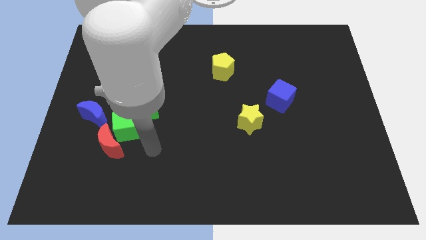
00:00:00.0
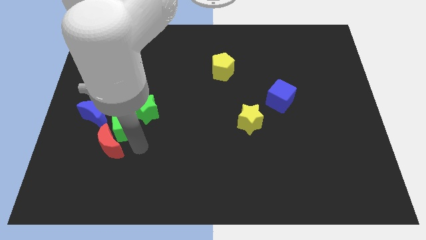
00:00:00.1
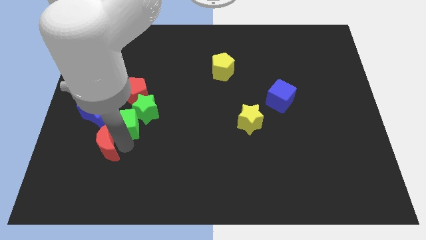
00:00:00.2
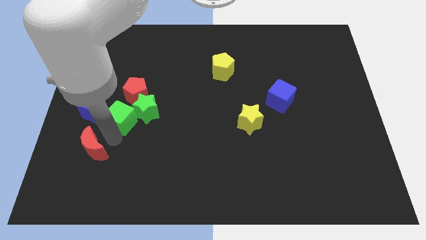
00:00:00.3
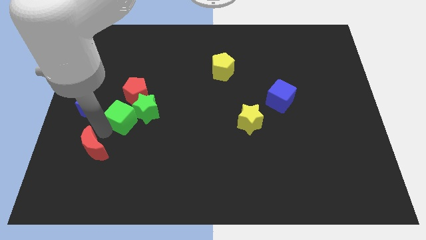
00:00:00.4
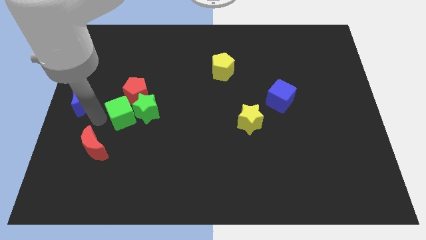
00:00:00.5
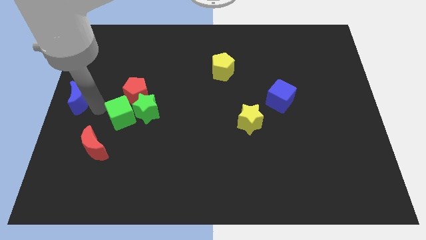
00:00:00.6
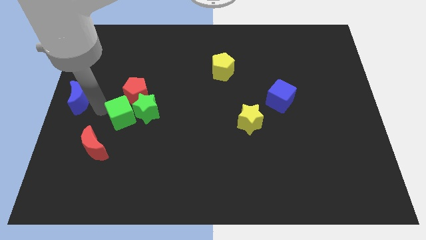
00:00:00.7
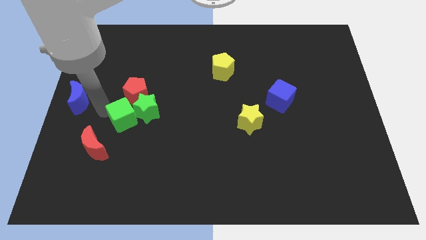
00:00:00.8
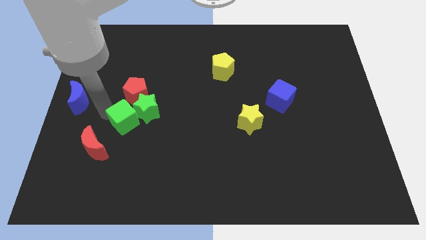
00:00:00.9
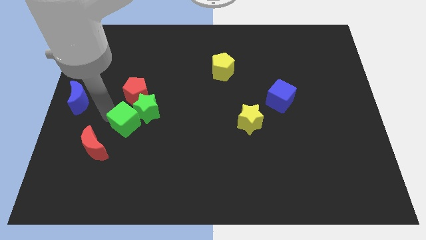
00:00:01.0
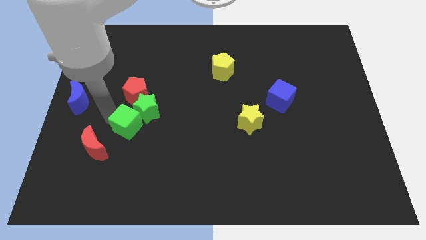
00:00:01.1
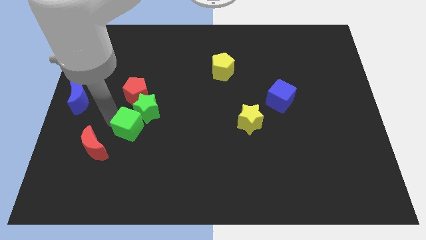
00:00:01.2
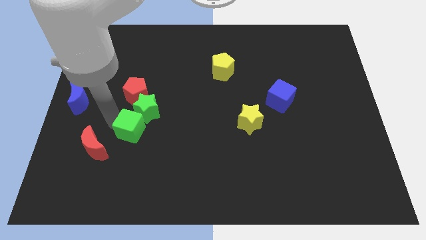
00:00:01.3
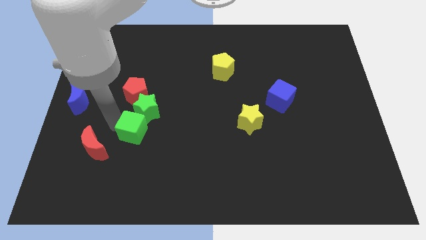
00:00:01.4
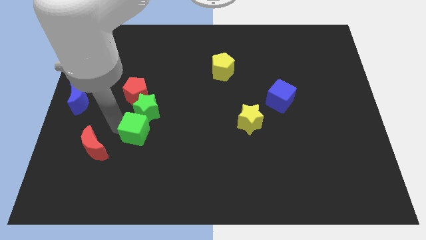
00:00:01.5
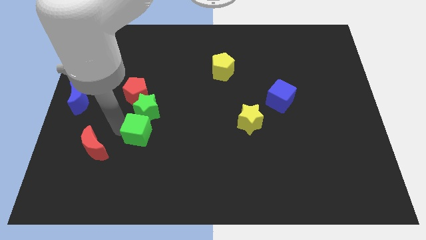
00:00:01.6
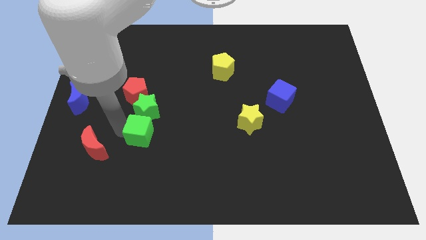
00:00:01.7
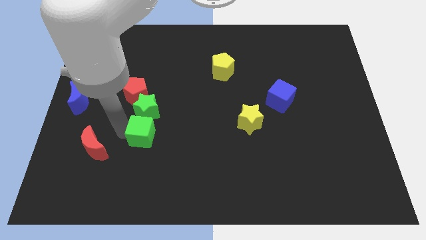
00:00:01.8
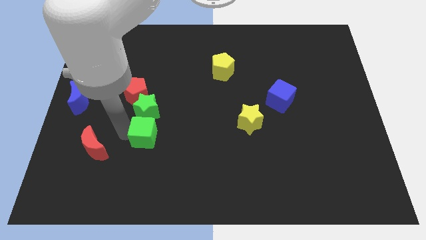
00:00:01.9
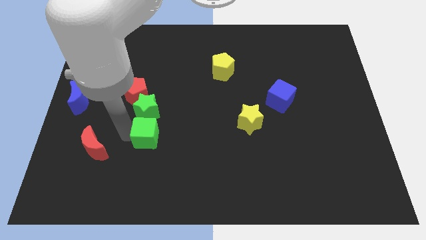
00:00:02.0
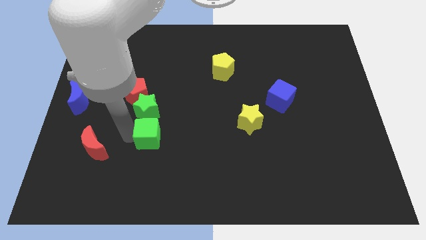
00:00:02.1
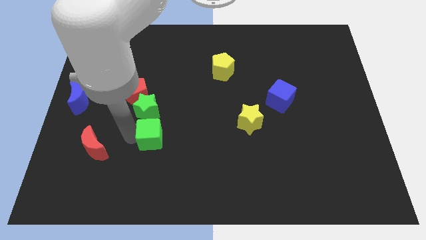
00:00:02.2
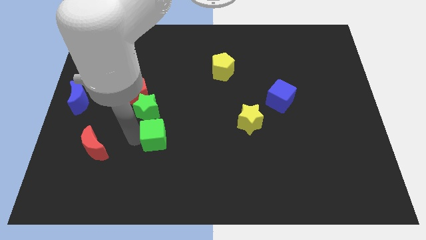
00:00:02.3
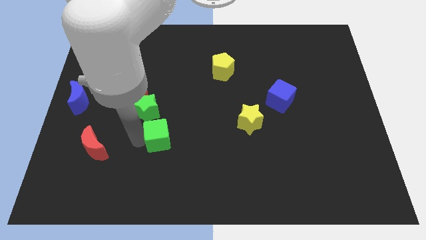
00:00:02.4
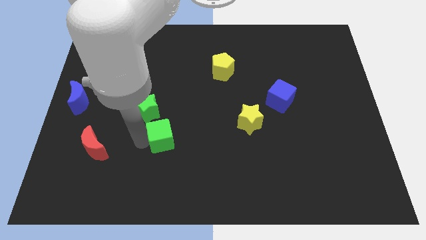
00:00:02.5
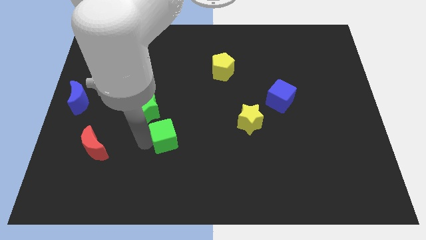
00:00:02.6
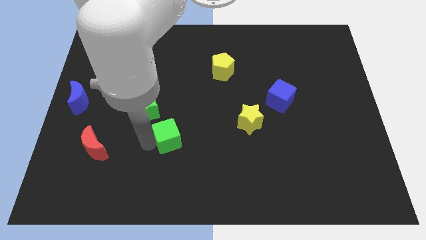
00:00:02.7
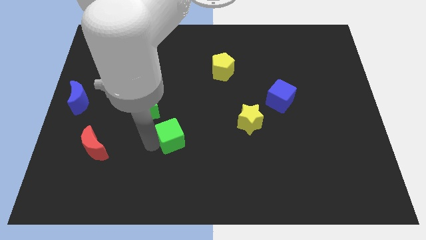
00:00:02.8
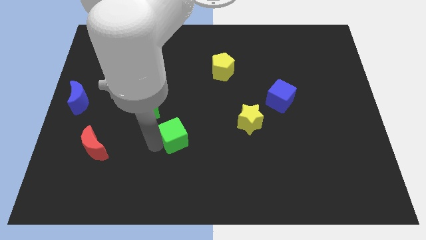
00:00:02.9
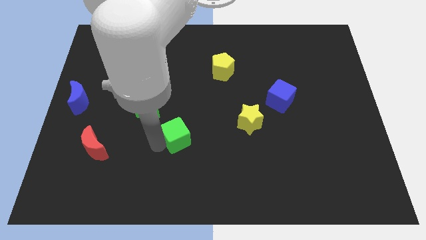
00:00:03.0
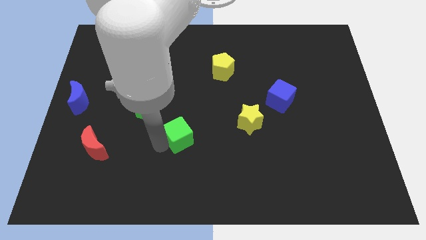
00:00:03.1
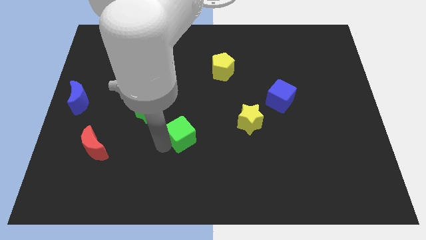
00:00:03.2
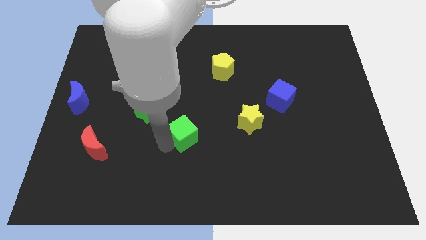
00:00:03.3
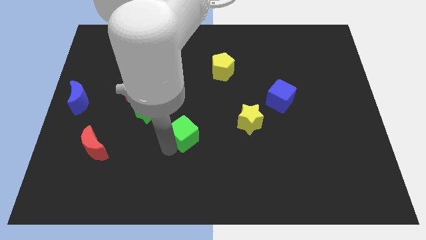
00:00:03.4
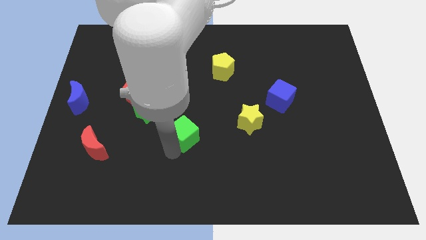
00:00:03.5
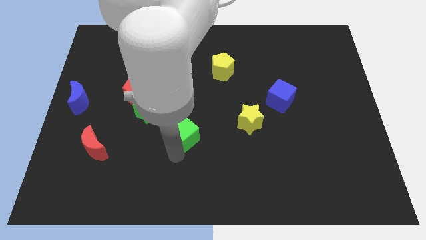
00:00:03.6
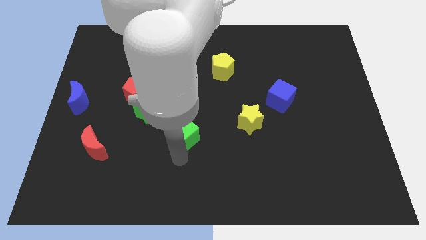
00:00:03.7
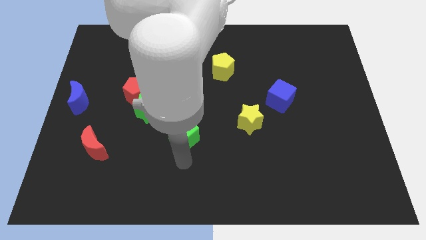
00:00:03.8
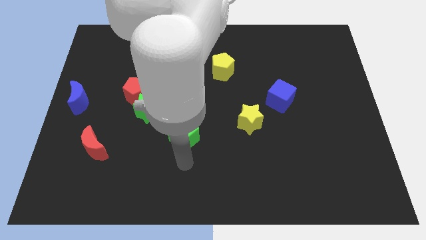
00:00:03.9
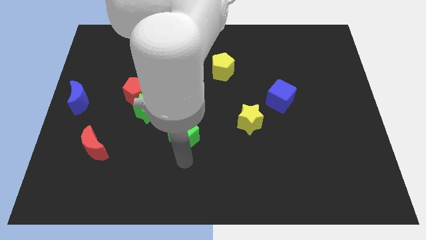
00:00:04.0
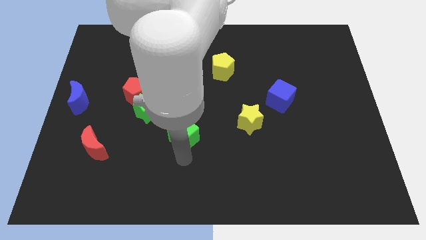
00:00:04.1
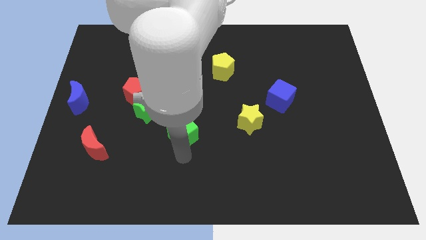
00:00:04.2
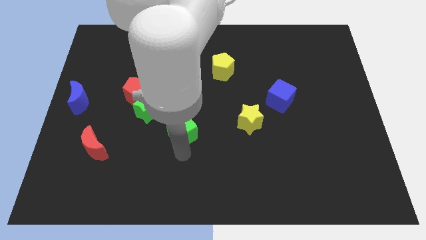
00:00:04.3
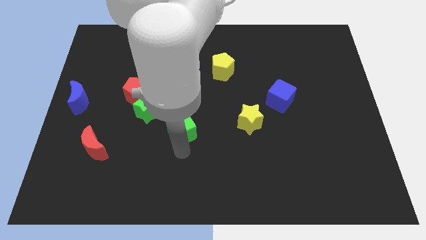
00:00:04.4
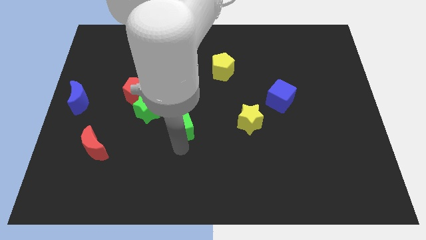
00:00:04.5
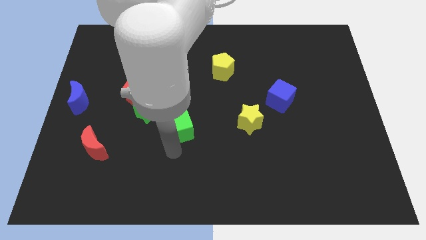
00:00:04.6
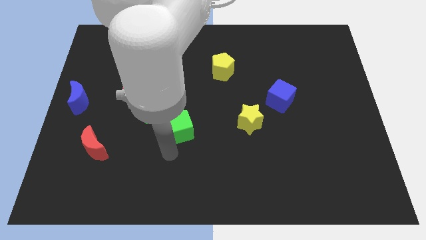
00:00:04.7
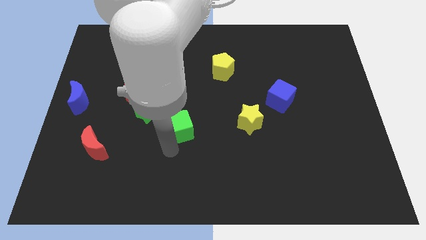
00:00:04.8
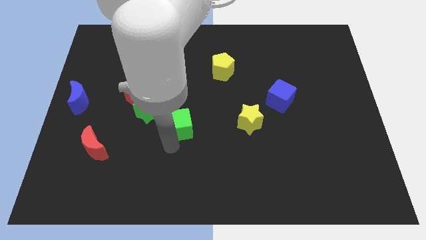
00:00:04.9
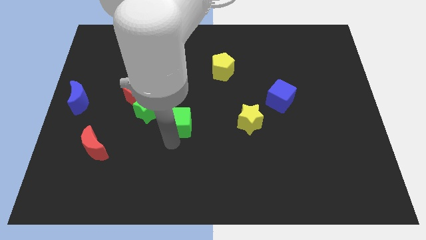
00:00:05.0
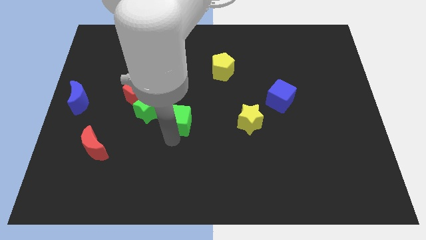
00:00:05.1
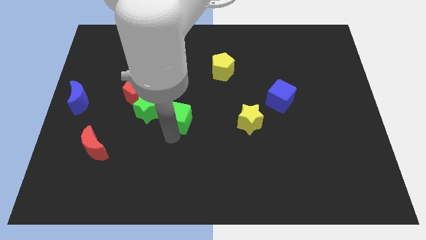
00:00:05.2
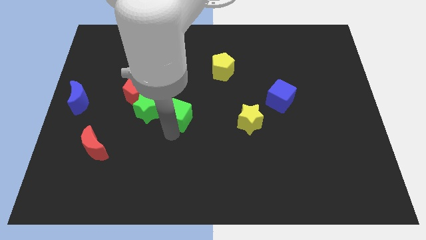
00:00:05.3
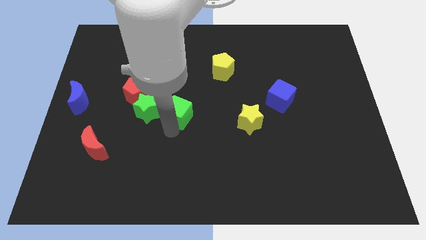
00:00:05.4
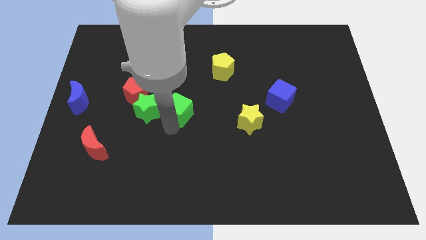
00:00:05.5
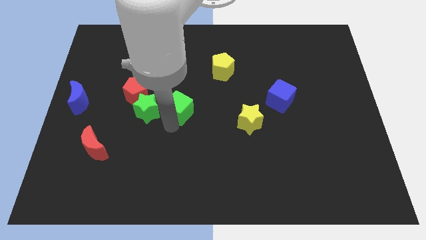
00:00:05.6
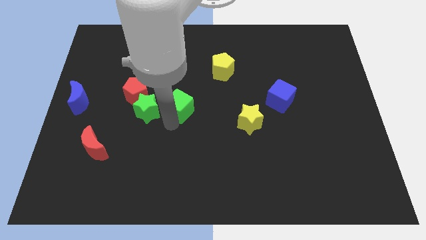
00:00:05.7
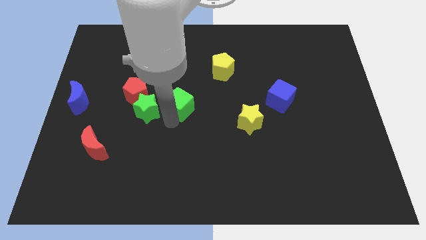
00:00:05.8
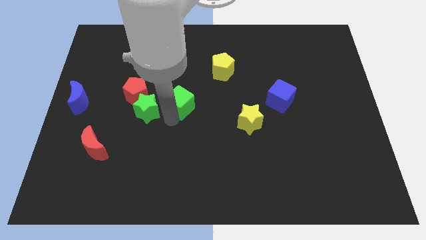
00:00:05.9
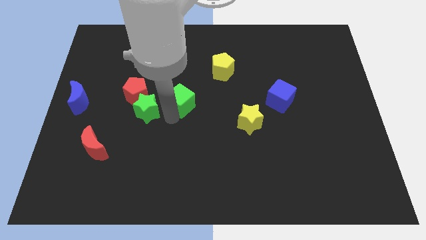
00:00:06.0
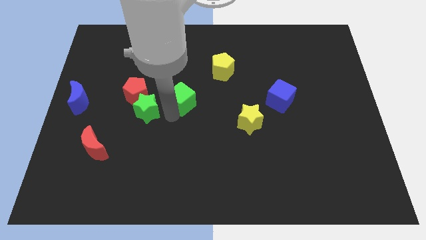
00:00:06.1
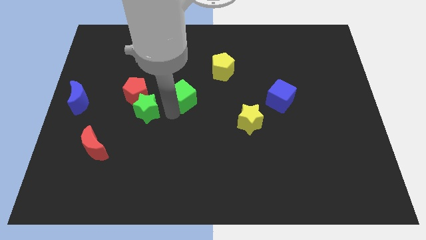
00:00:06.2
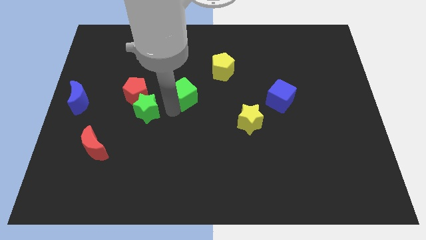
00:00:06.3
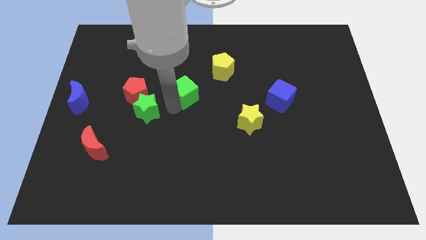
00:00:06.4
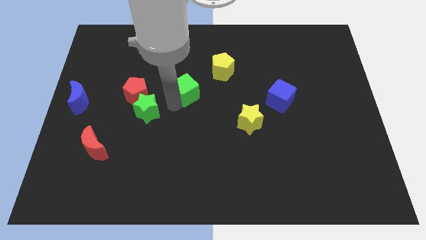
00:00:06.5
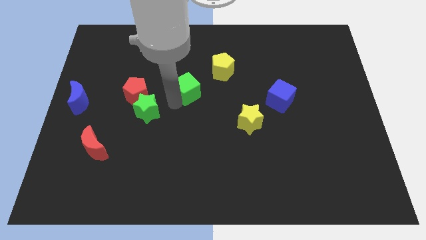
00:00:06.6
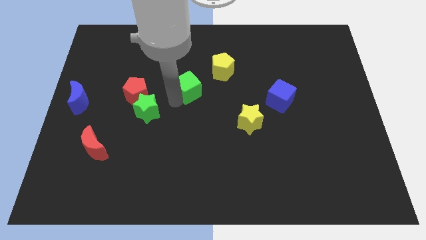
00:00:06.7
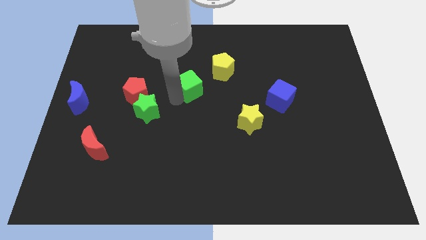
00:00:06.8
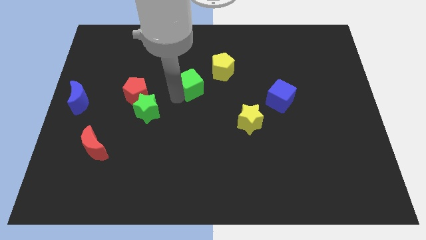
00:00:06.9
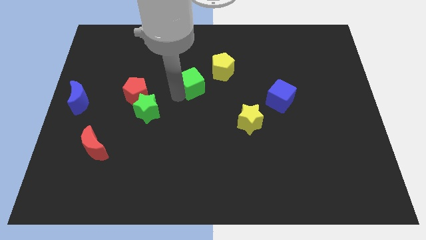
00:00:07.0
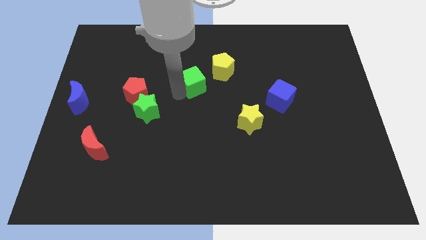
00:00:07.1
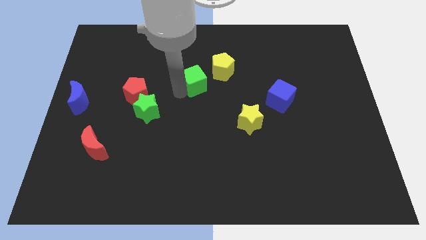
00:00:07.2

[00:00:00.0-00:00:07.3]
slide the green cube upwards and then right

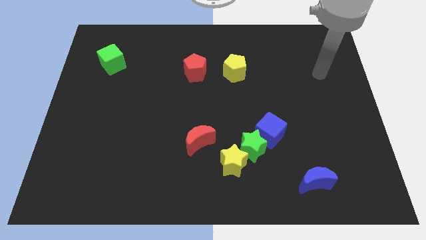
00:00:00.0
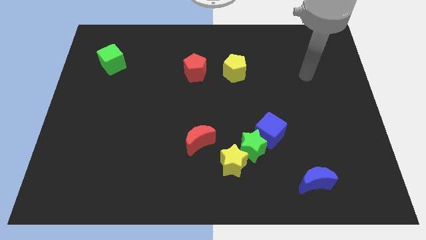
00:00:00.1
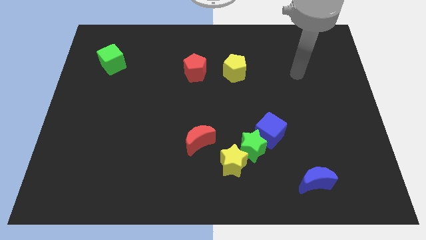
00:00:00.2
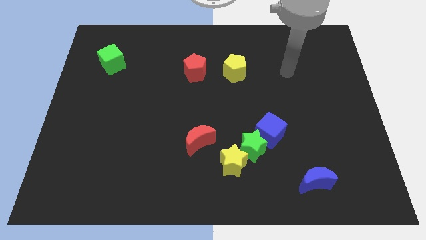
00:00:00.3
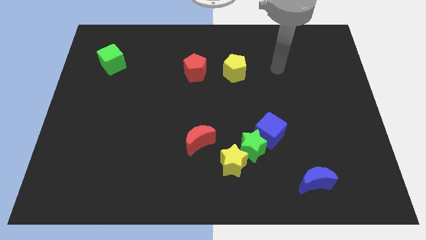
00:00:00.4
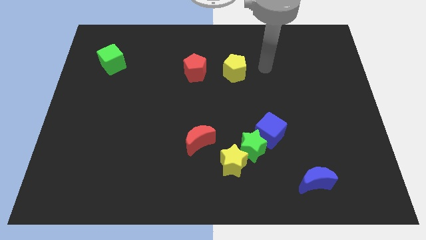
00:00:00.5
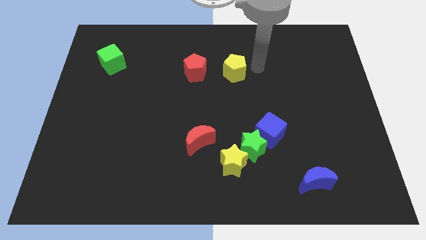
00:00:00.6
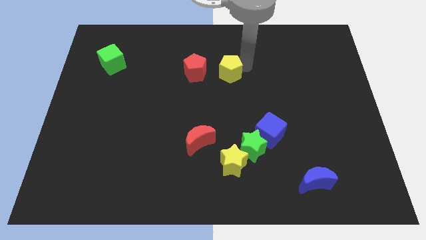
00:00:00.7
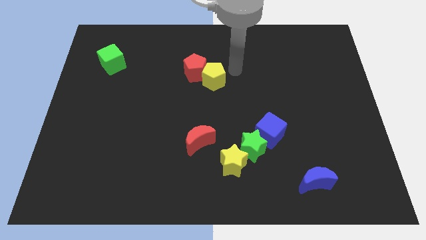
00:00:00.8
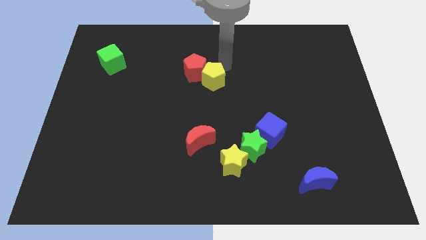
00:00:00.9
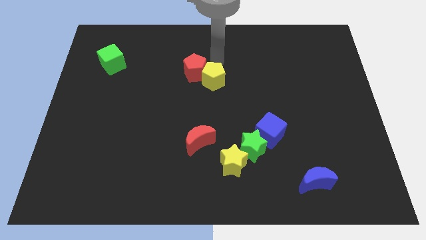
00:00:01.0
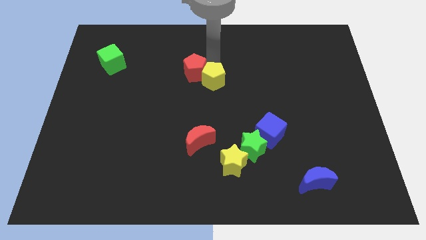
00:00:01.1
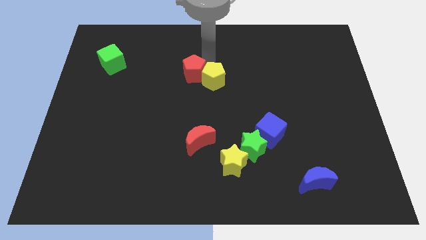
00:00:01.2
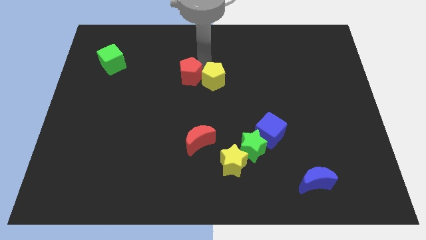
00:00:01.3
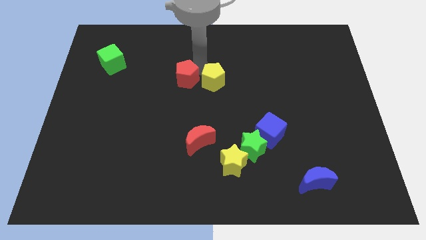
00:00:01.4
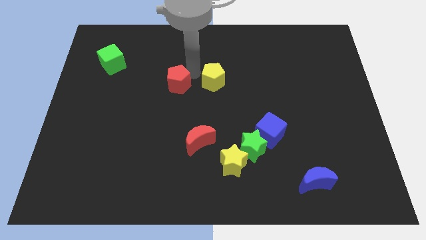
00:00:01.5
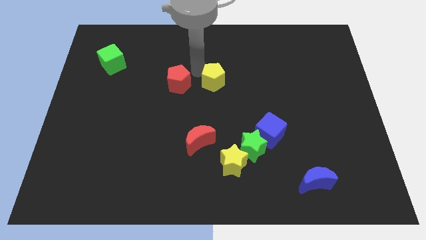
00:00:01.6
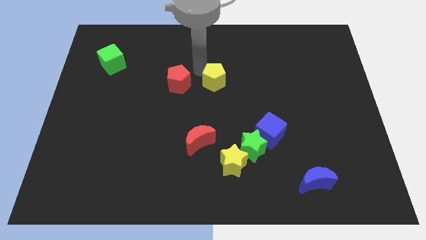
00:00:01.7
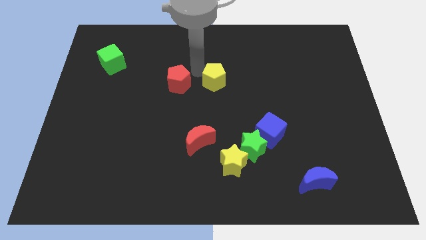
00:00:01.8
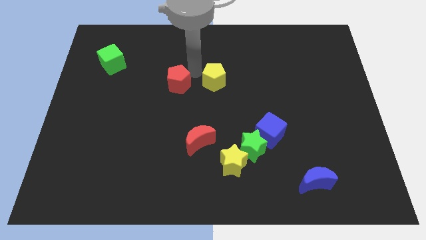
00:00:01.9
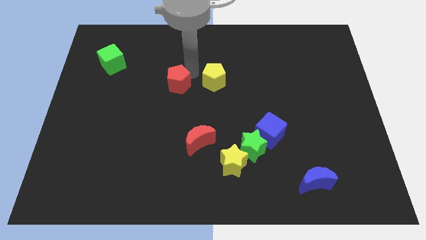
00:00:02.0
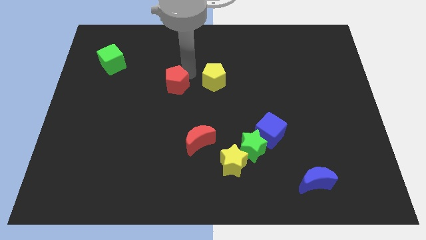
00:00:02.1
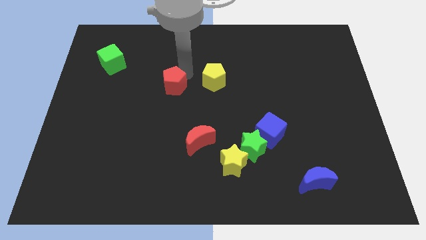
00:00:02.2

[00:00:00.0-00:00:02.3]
push the red pentagon somewhat down and to the left
